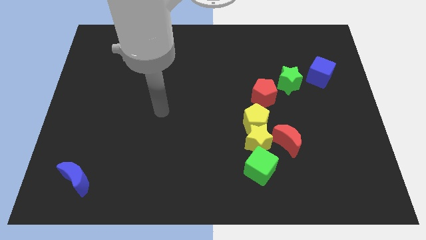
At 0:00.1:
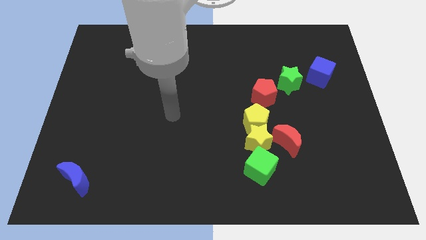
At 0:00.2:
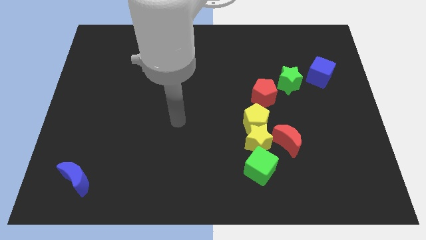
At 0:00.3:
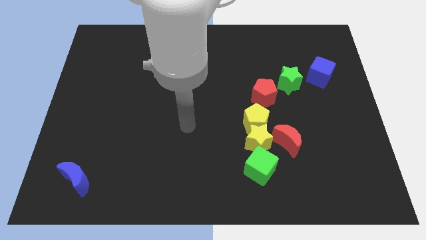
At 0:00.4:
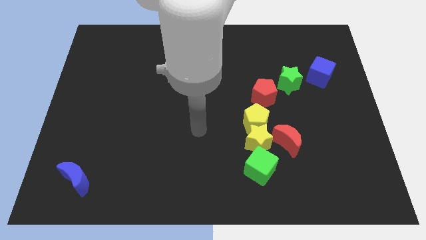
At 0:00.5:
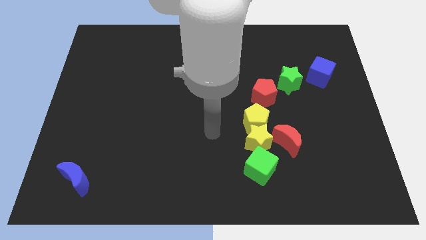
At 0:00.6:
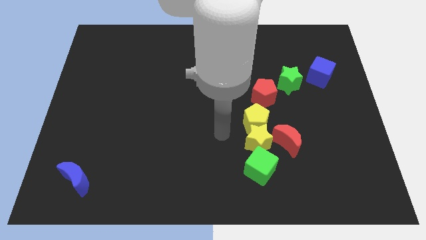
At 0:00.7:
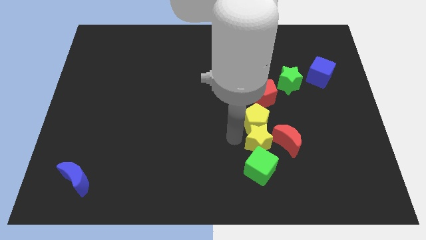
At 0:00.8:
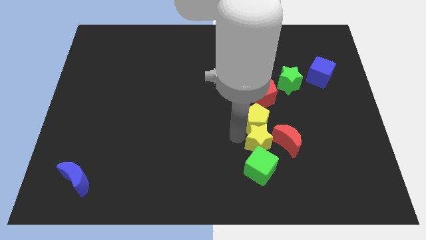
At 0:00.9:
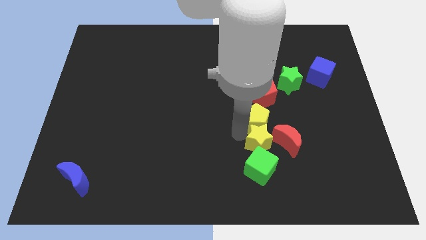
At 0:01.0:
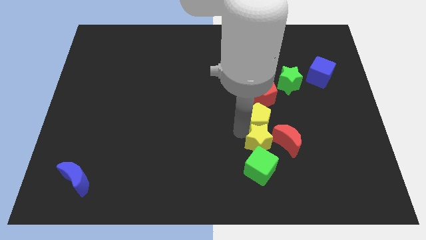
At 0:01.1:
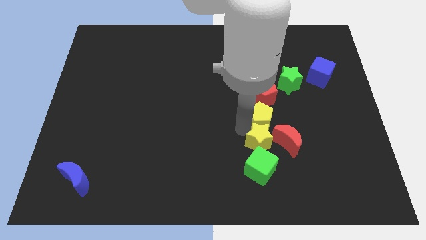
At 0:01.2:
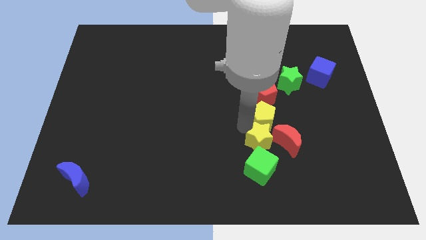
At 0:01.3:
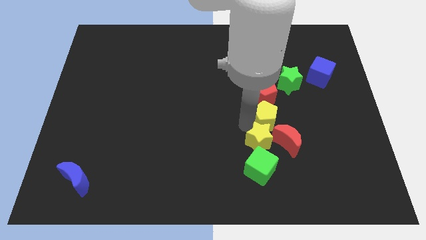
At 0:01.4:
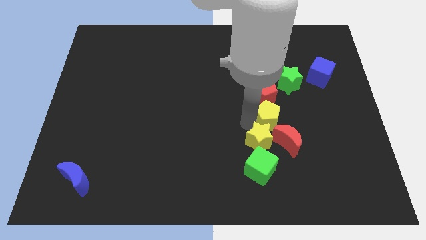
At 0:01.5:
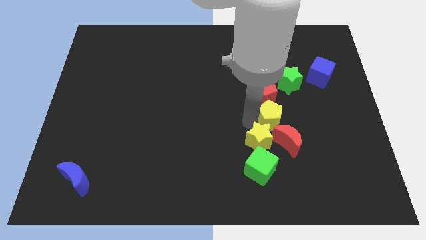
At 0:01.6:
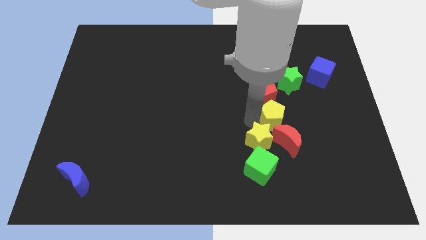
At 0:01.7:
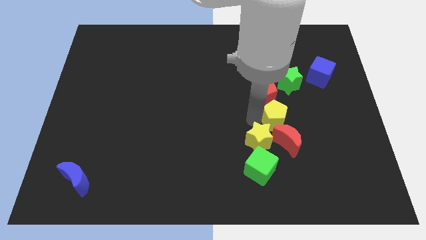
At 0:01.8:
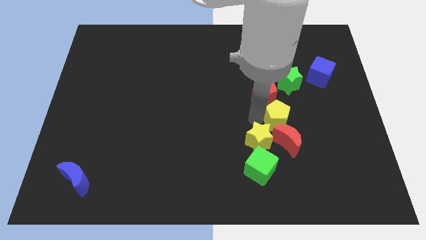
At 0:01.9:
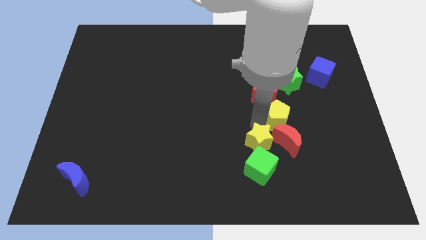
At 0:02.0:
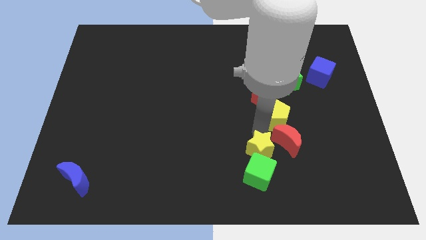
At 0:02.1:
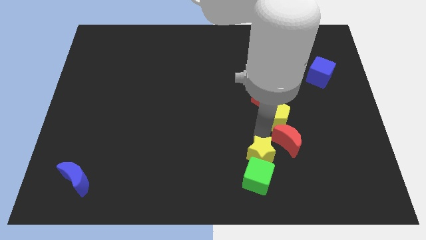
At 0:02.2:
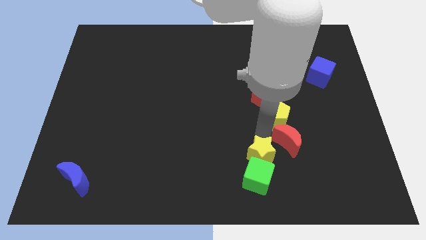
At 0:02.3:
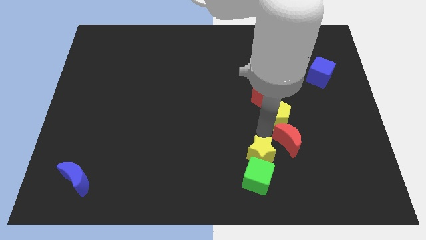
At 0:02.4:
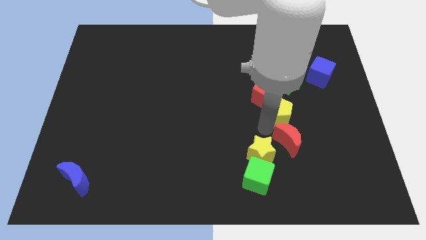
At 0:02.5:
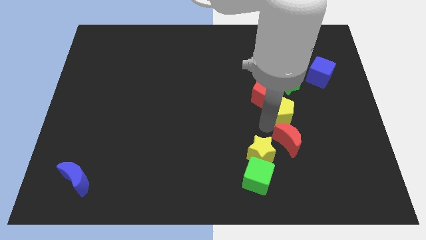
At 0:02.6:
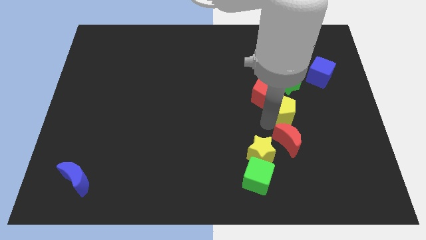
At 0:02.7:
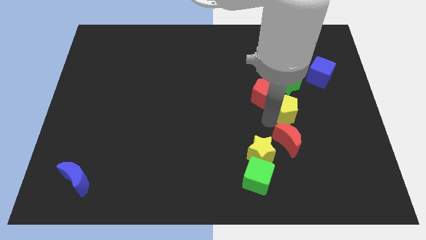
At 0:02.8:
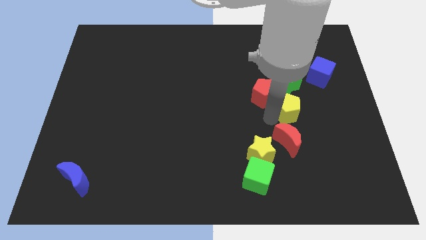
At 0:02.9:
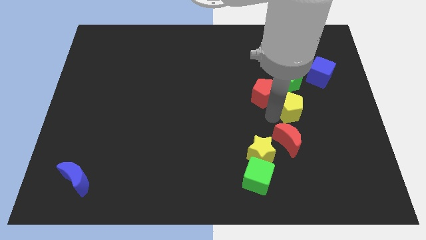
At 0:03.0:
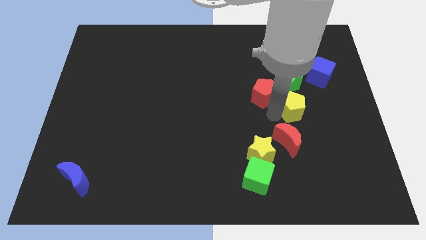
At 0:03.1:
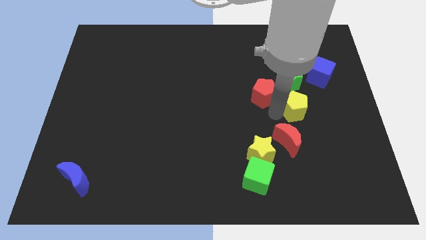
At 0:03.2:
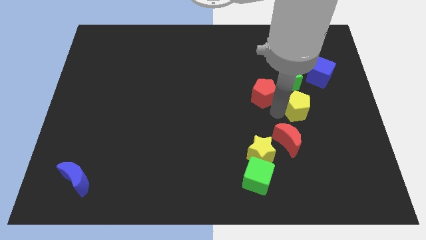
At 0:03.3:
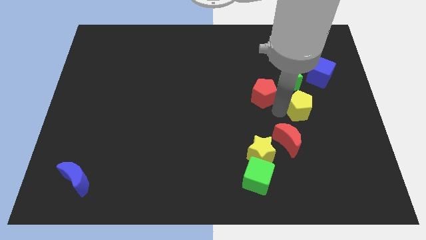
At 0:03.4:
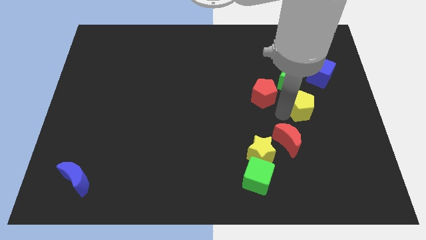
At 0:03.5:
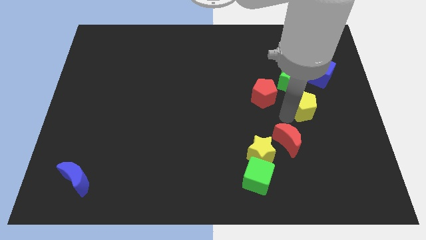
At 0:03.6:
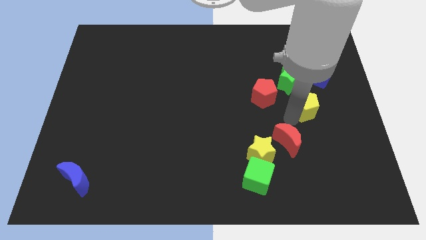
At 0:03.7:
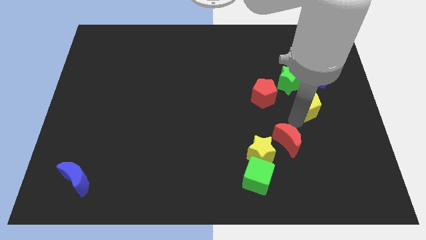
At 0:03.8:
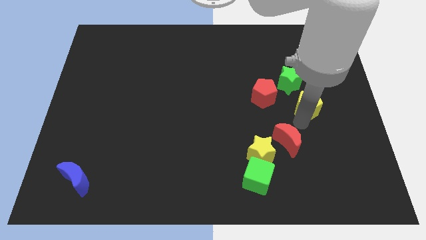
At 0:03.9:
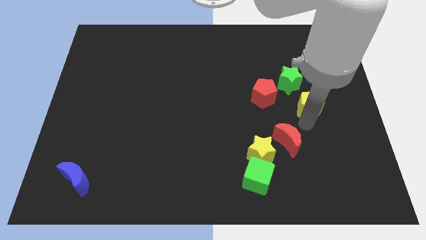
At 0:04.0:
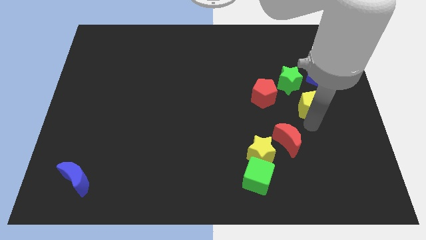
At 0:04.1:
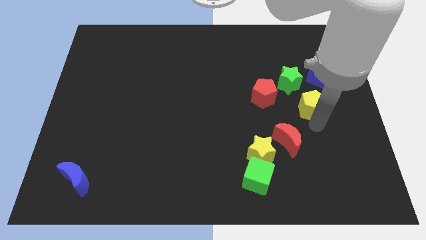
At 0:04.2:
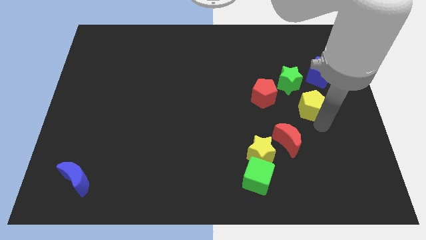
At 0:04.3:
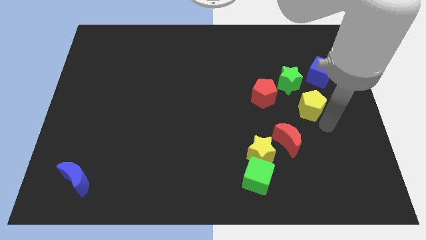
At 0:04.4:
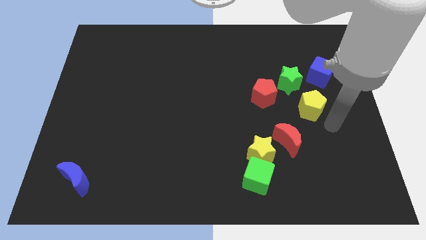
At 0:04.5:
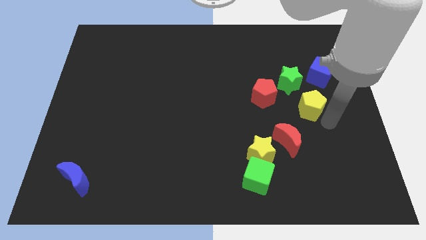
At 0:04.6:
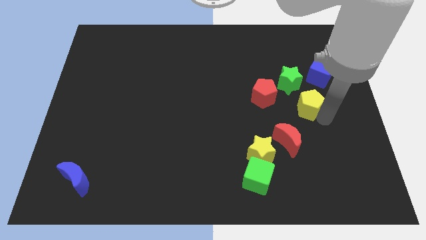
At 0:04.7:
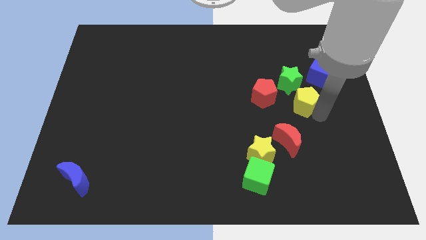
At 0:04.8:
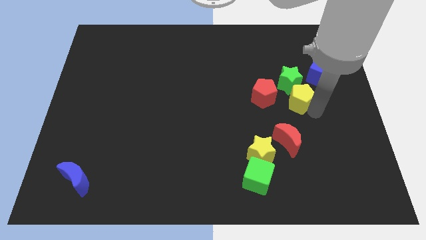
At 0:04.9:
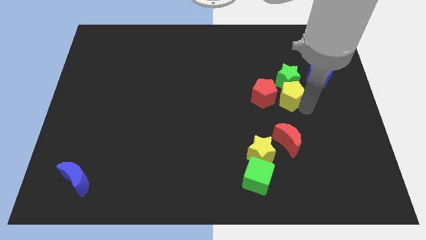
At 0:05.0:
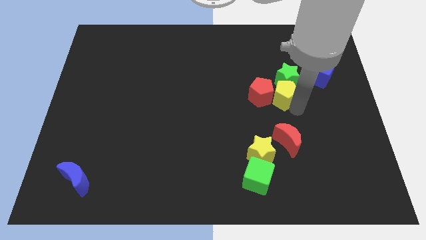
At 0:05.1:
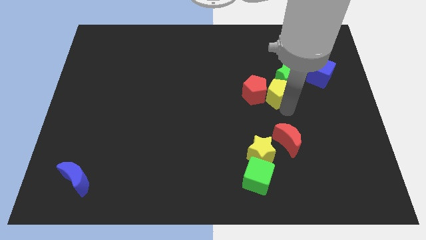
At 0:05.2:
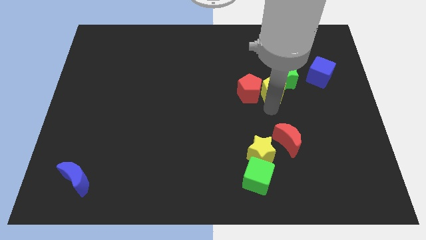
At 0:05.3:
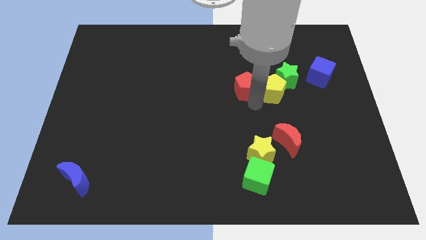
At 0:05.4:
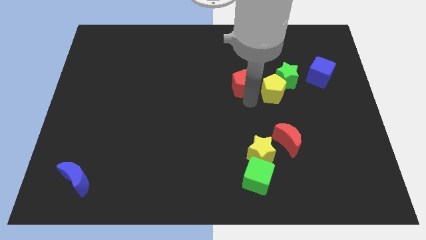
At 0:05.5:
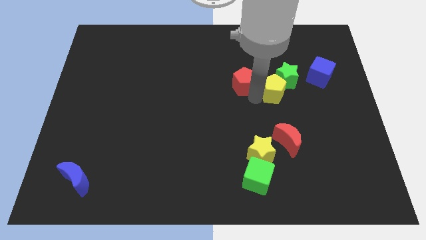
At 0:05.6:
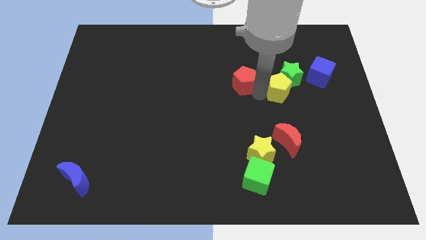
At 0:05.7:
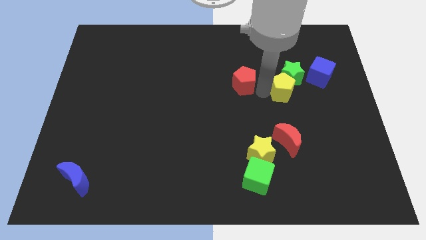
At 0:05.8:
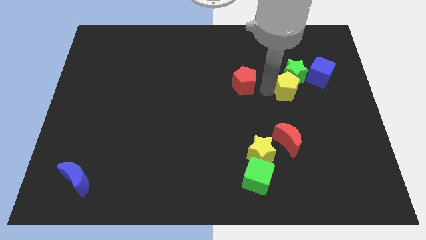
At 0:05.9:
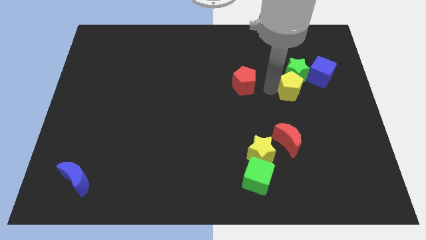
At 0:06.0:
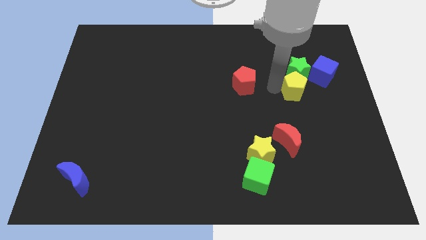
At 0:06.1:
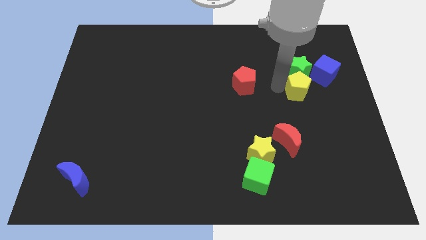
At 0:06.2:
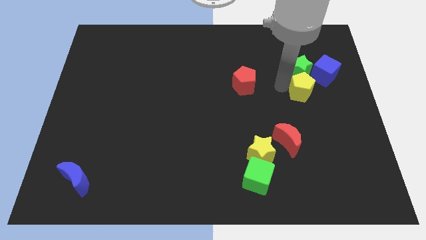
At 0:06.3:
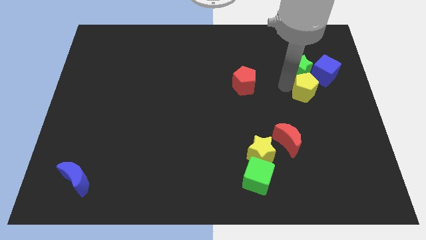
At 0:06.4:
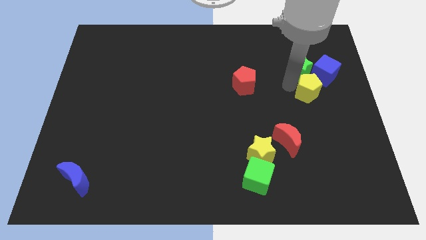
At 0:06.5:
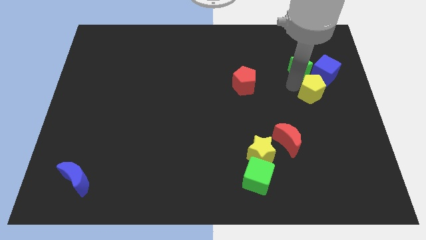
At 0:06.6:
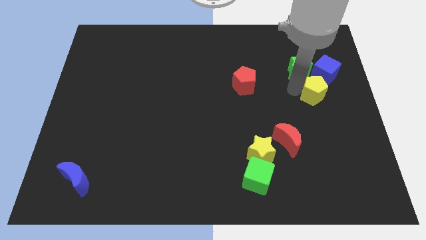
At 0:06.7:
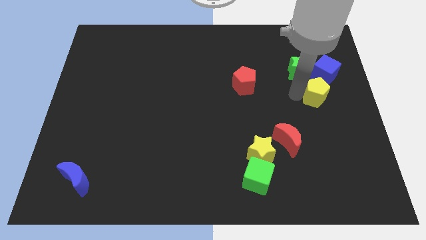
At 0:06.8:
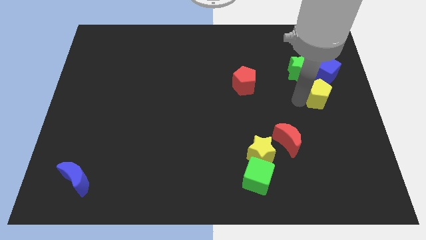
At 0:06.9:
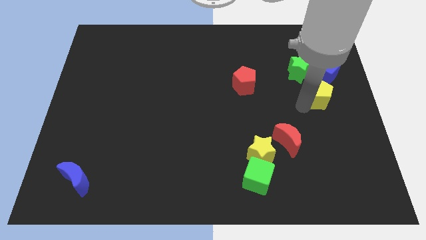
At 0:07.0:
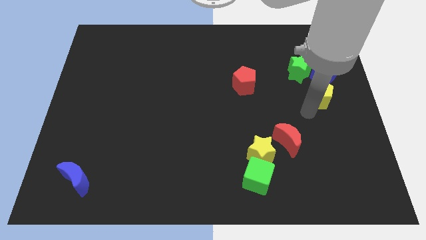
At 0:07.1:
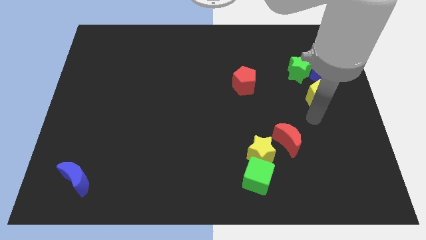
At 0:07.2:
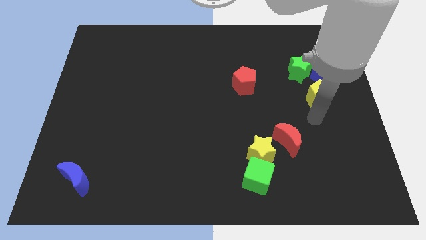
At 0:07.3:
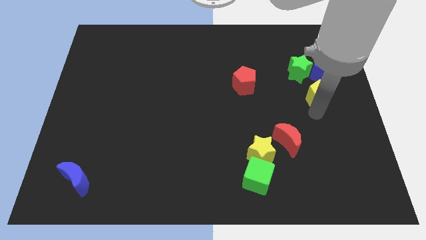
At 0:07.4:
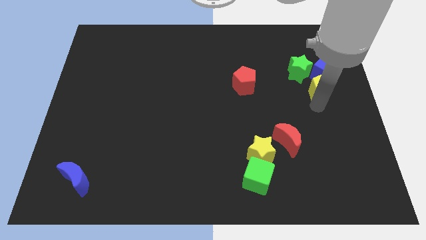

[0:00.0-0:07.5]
slide the yellow pentagon next to the blue cube
